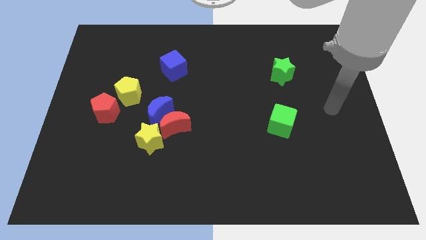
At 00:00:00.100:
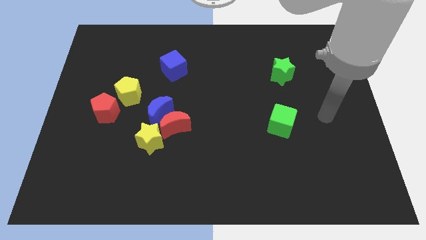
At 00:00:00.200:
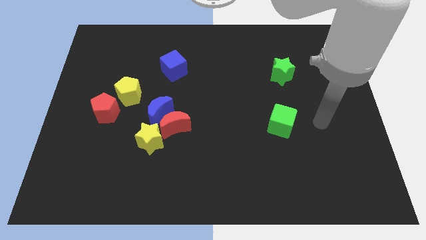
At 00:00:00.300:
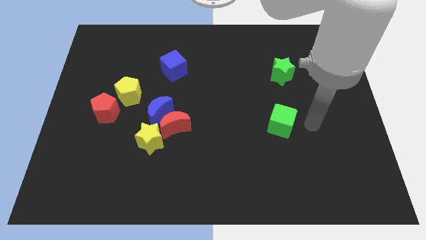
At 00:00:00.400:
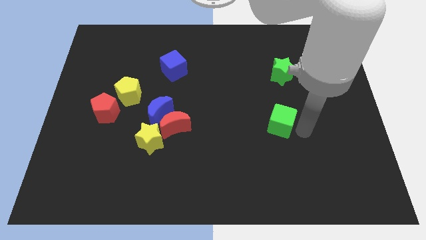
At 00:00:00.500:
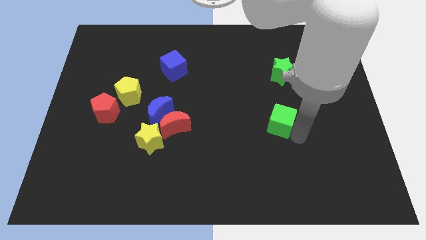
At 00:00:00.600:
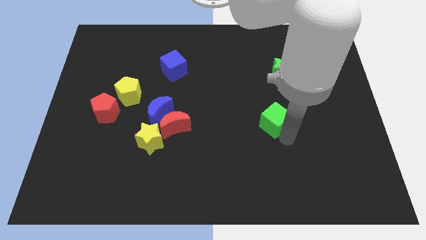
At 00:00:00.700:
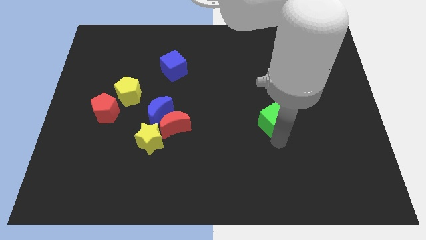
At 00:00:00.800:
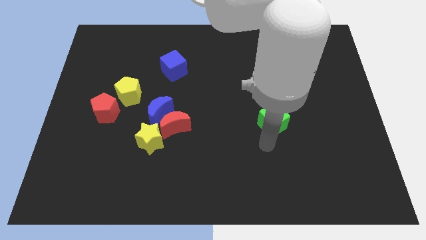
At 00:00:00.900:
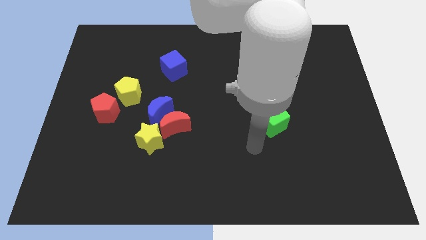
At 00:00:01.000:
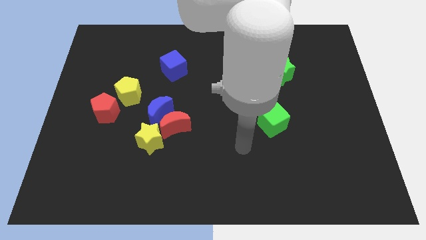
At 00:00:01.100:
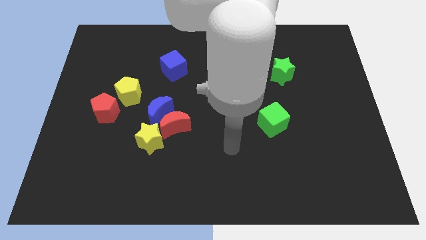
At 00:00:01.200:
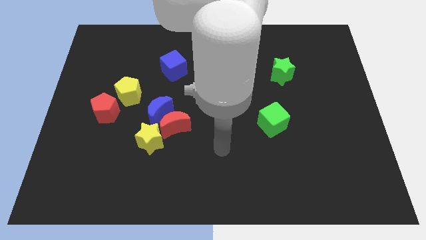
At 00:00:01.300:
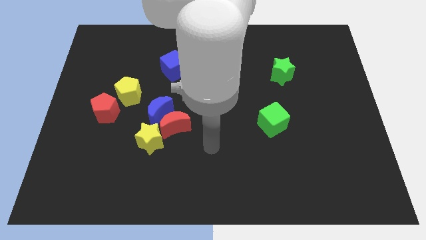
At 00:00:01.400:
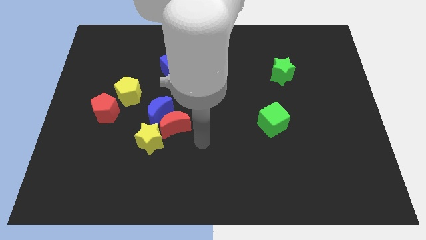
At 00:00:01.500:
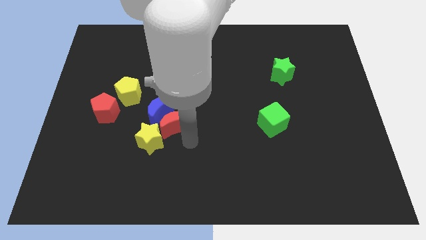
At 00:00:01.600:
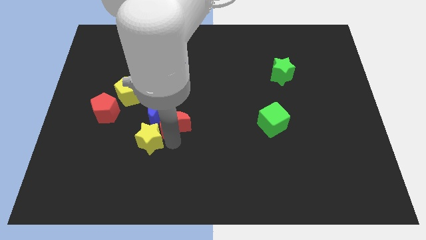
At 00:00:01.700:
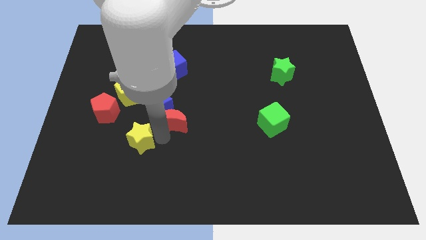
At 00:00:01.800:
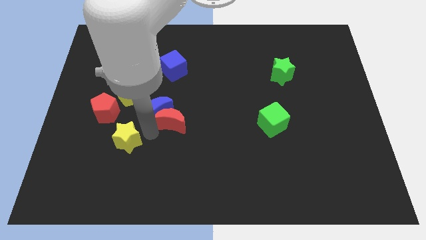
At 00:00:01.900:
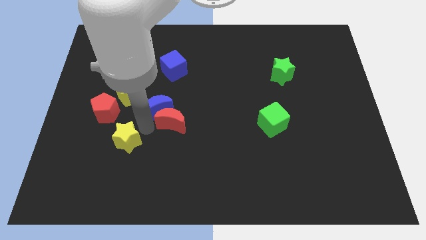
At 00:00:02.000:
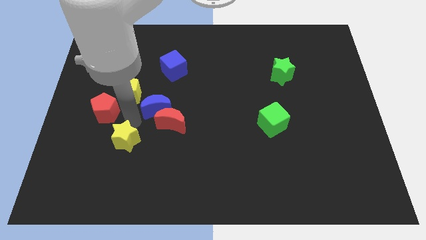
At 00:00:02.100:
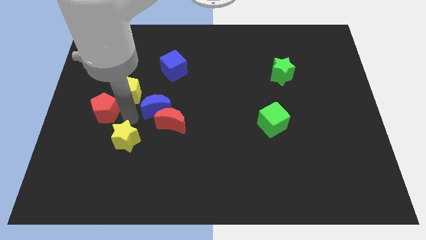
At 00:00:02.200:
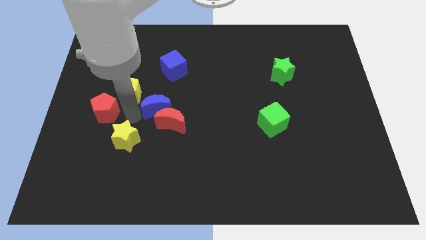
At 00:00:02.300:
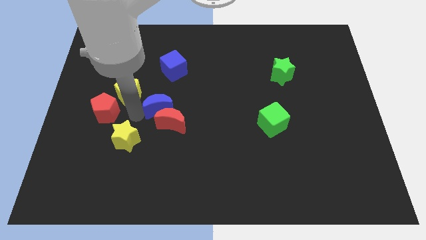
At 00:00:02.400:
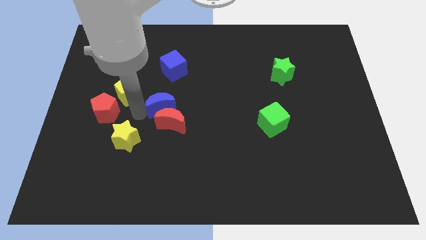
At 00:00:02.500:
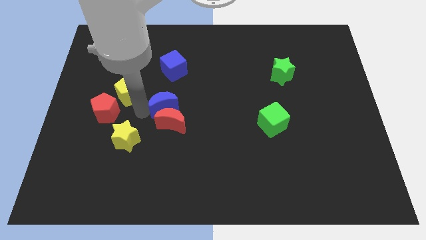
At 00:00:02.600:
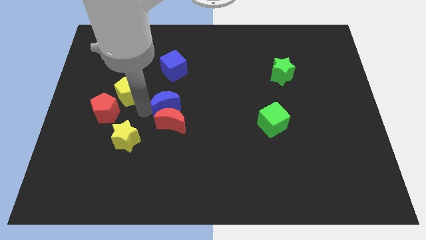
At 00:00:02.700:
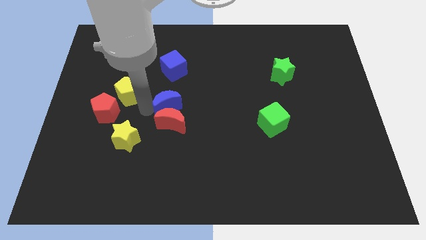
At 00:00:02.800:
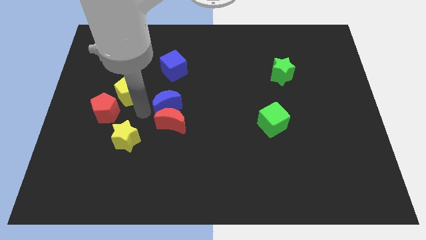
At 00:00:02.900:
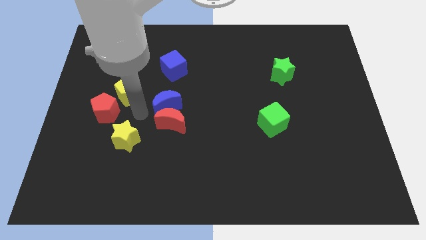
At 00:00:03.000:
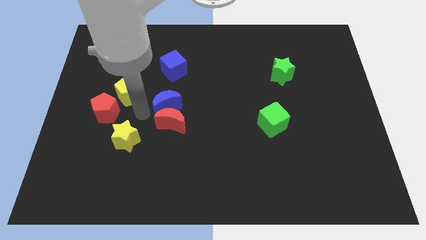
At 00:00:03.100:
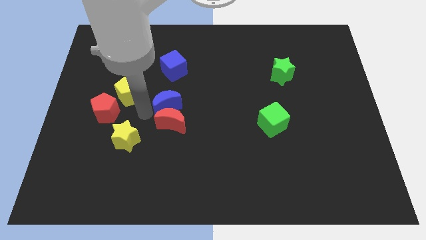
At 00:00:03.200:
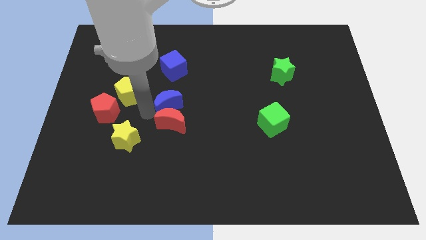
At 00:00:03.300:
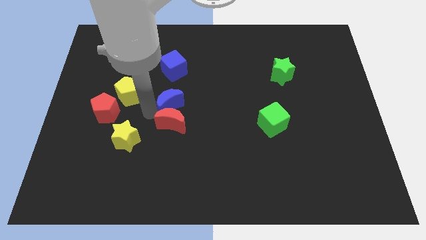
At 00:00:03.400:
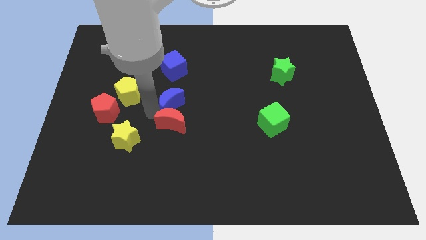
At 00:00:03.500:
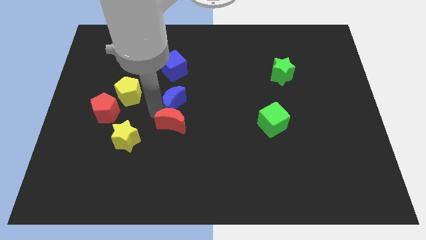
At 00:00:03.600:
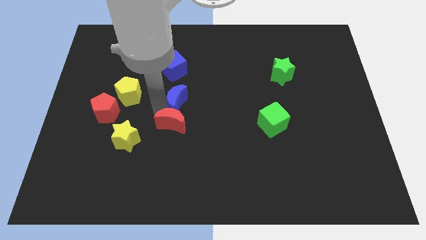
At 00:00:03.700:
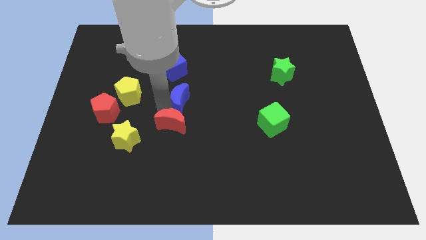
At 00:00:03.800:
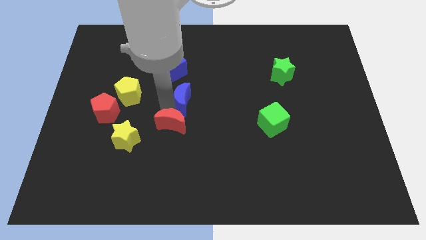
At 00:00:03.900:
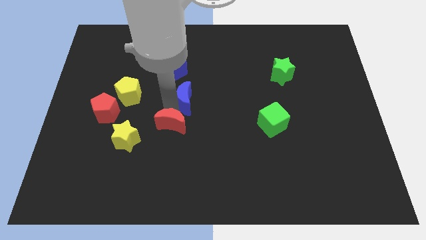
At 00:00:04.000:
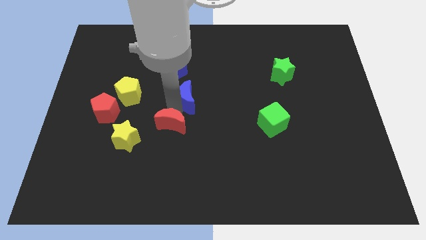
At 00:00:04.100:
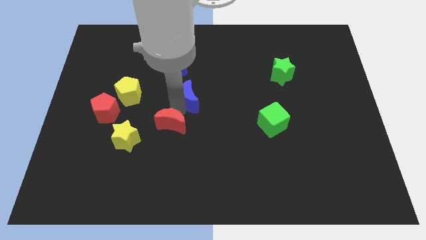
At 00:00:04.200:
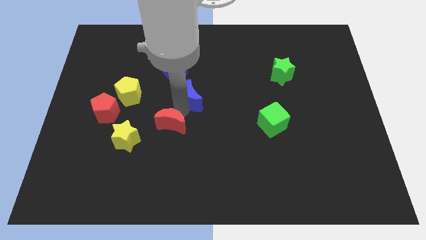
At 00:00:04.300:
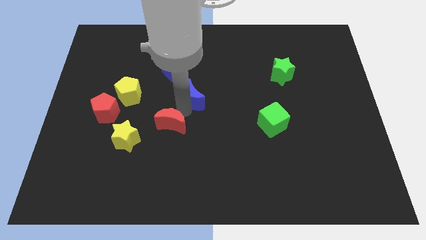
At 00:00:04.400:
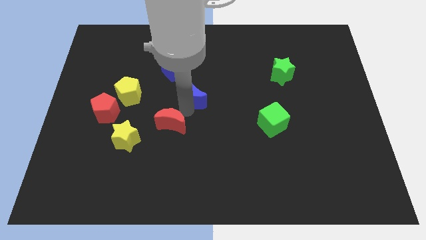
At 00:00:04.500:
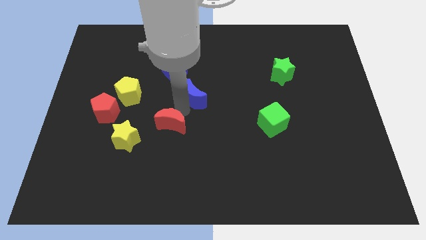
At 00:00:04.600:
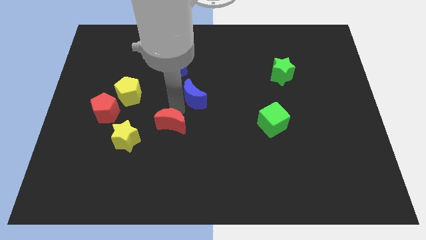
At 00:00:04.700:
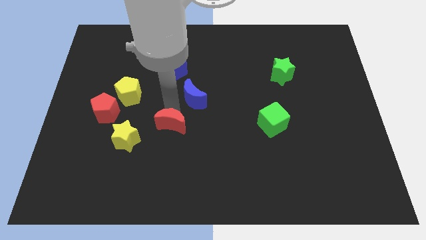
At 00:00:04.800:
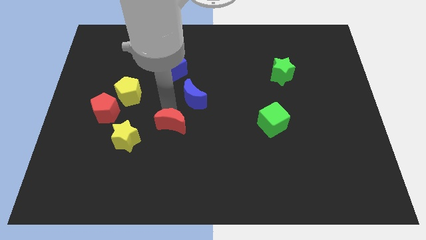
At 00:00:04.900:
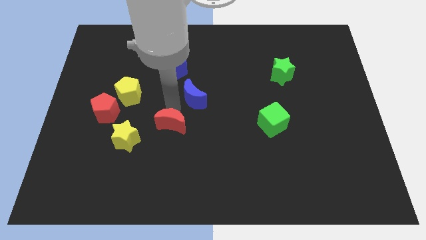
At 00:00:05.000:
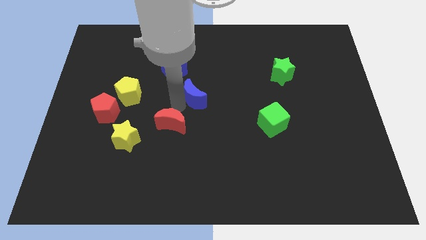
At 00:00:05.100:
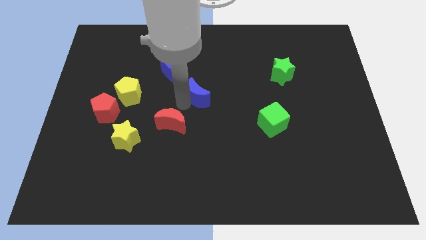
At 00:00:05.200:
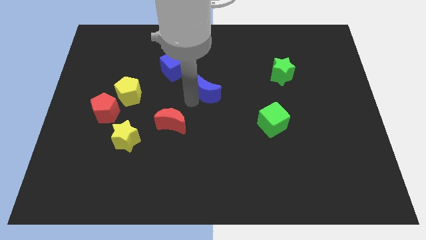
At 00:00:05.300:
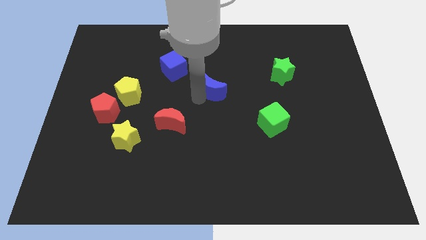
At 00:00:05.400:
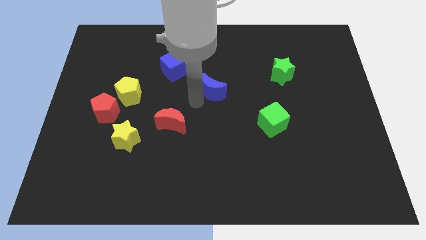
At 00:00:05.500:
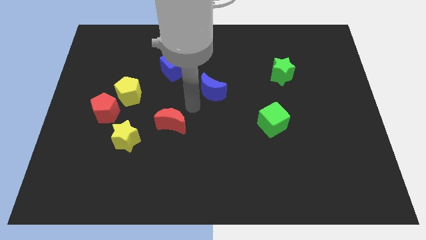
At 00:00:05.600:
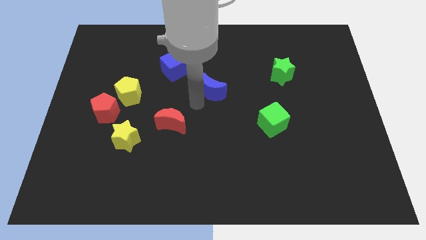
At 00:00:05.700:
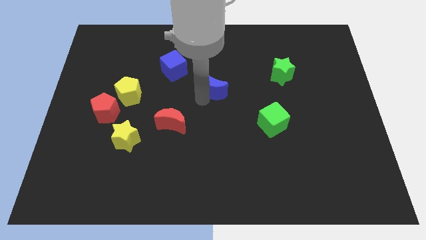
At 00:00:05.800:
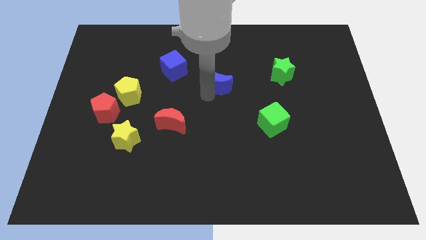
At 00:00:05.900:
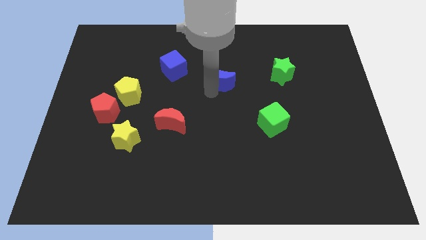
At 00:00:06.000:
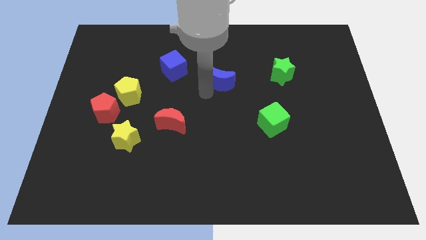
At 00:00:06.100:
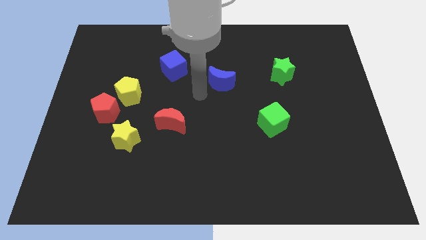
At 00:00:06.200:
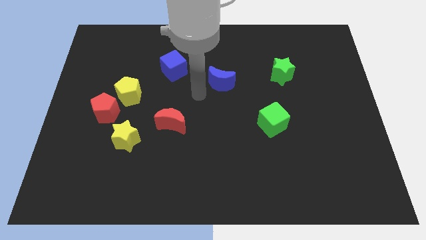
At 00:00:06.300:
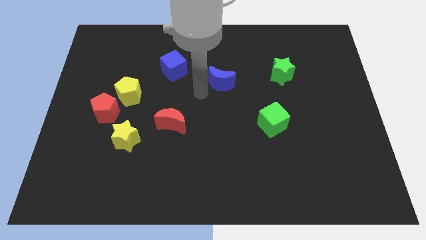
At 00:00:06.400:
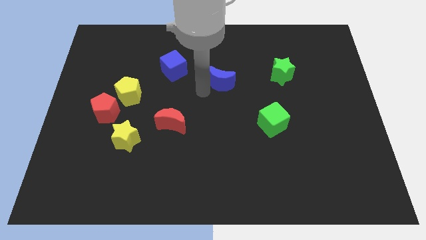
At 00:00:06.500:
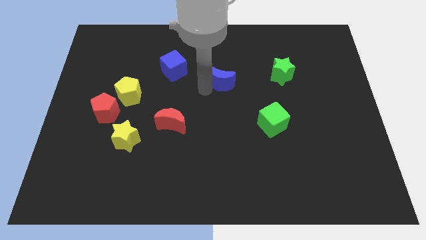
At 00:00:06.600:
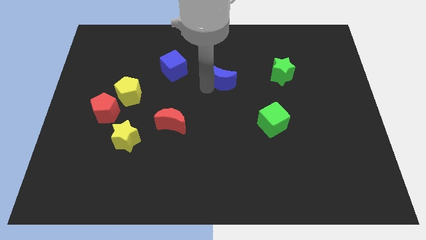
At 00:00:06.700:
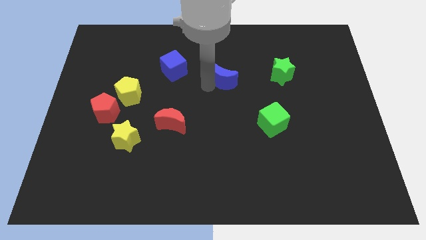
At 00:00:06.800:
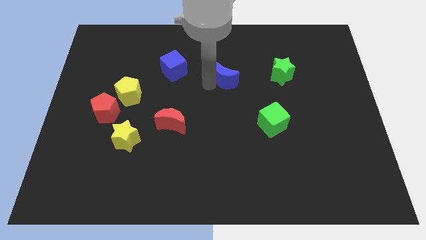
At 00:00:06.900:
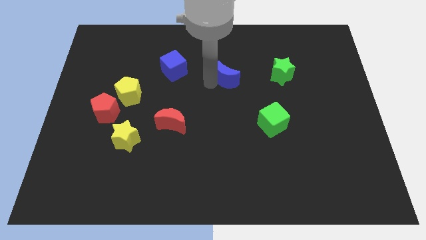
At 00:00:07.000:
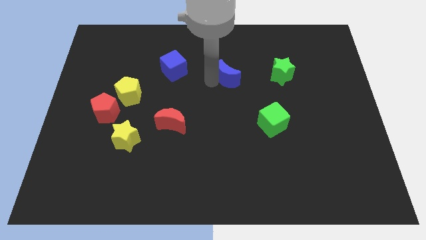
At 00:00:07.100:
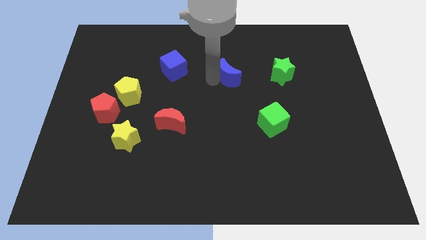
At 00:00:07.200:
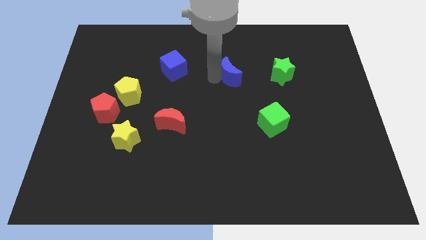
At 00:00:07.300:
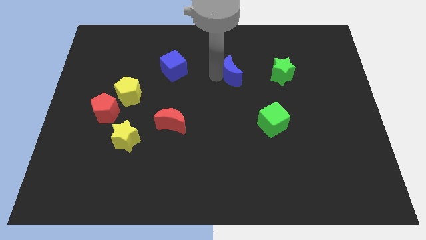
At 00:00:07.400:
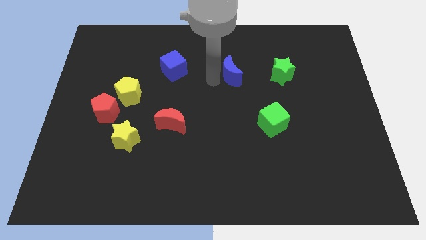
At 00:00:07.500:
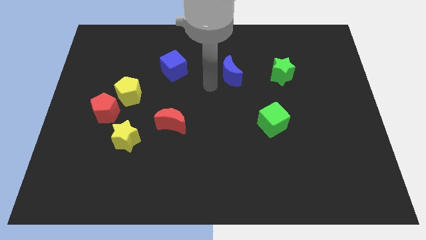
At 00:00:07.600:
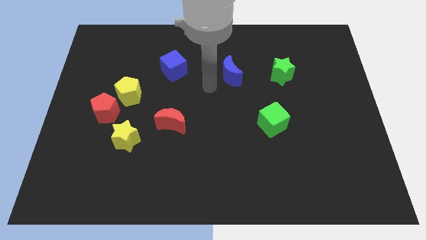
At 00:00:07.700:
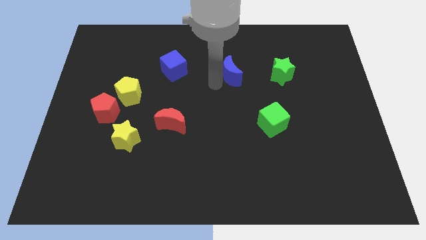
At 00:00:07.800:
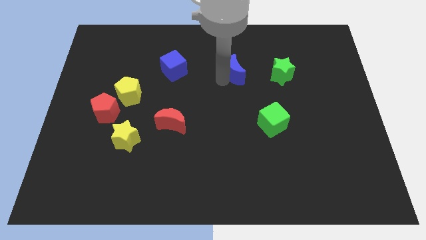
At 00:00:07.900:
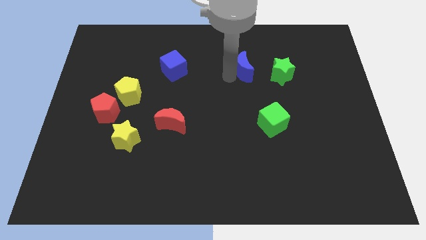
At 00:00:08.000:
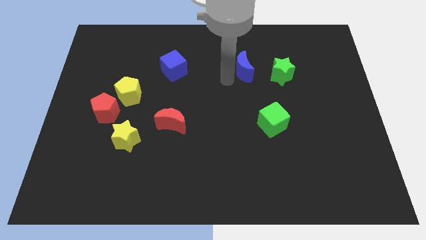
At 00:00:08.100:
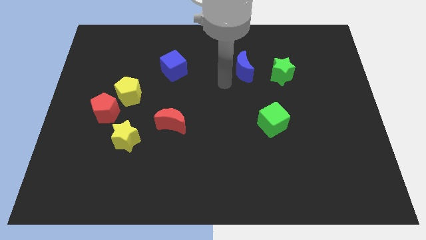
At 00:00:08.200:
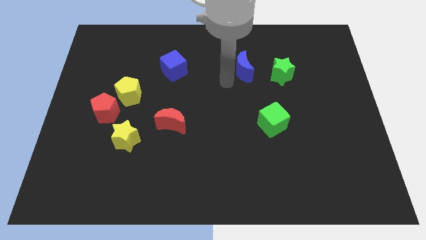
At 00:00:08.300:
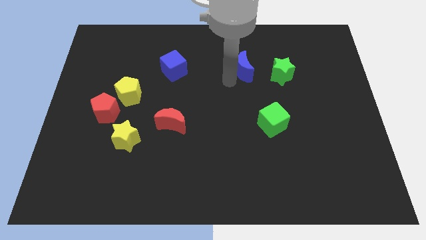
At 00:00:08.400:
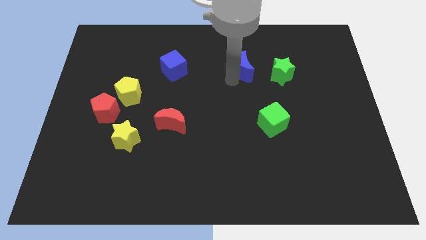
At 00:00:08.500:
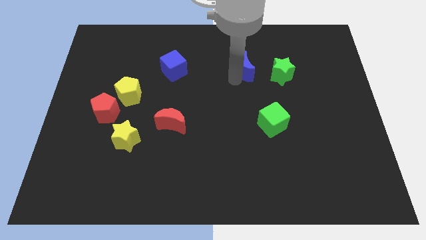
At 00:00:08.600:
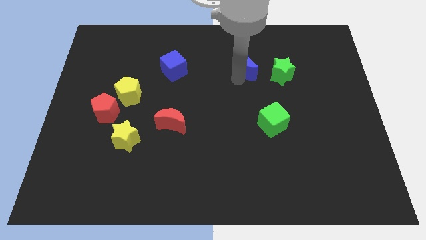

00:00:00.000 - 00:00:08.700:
move the blue moon to the top left of the green star
